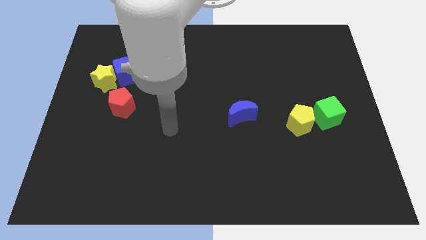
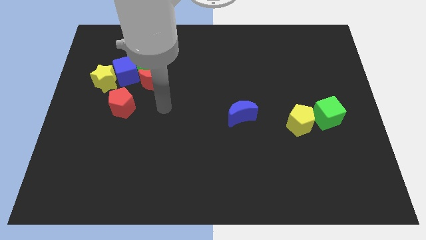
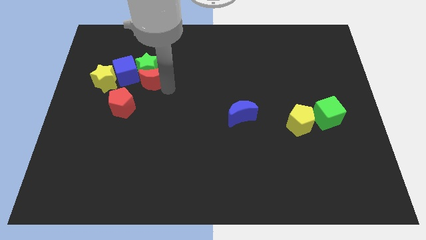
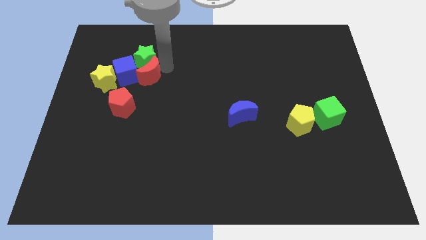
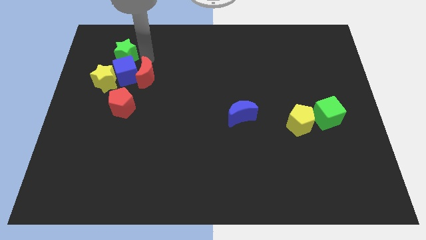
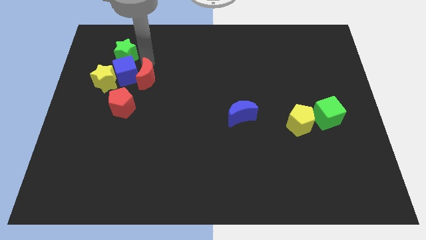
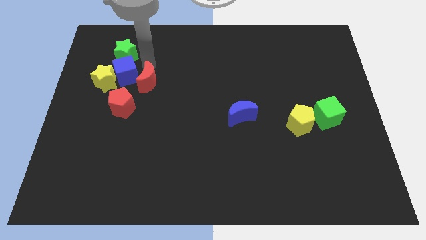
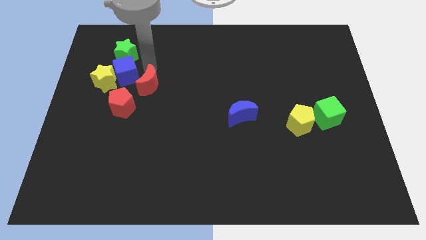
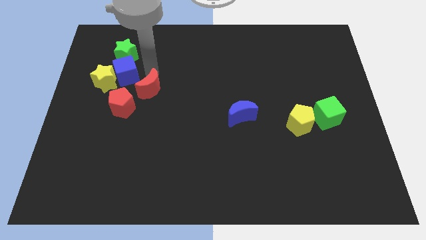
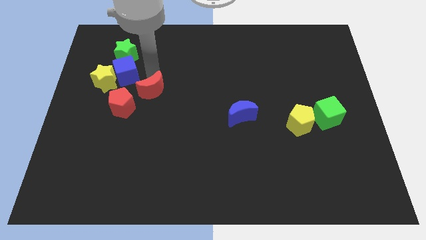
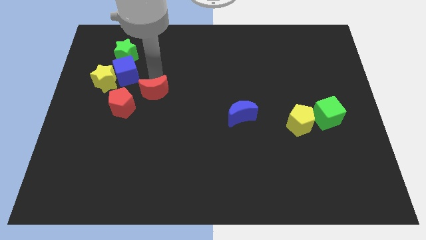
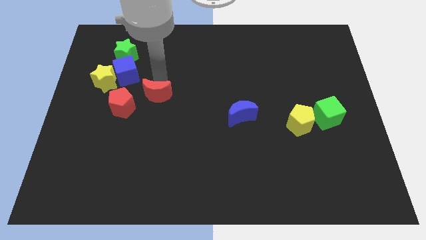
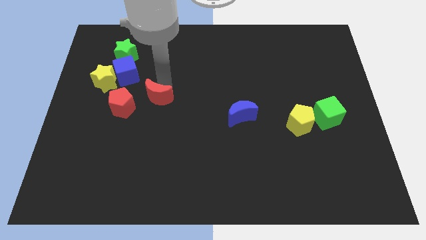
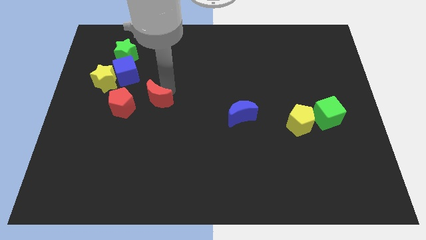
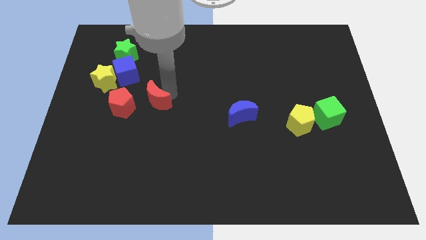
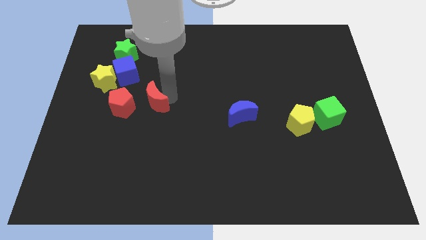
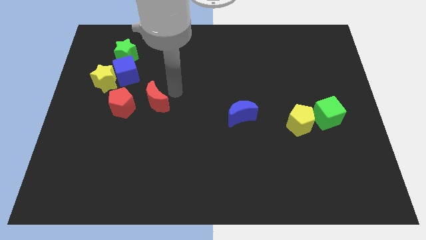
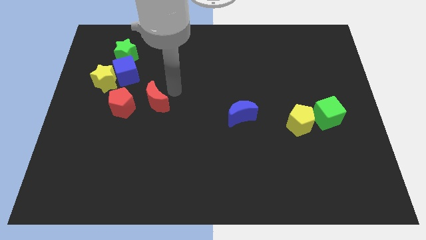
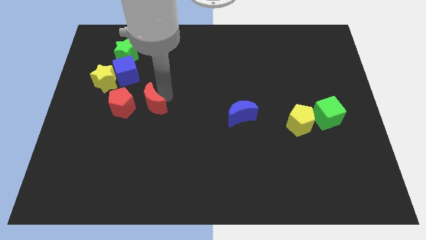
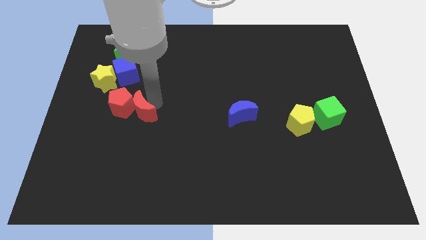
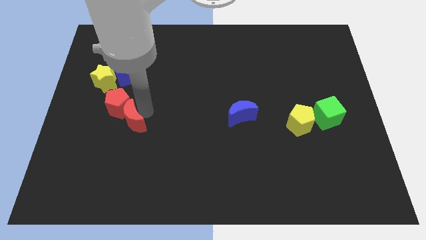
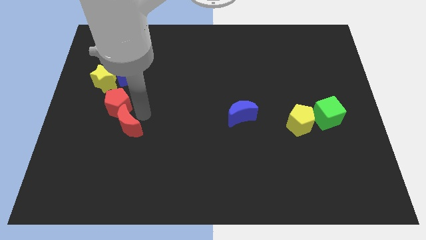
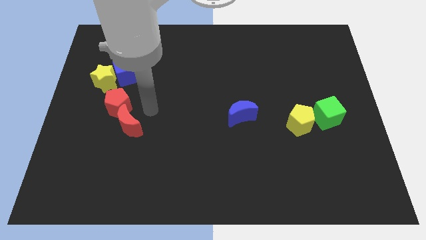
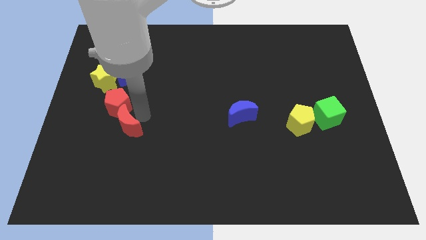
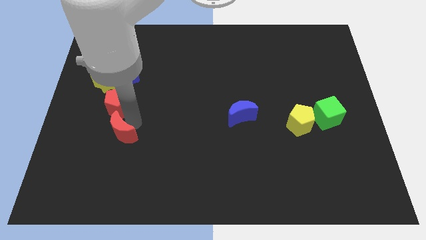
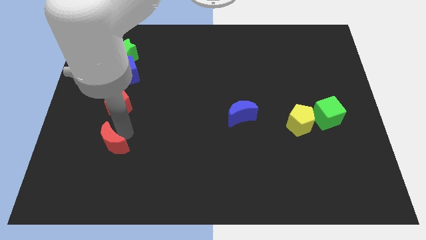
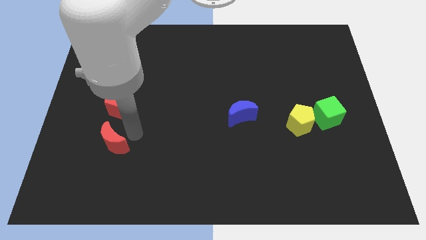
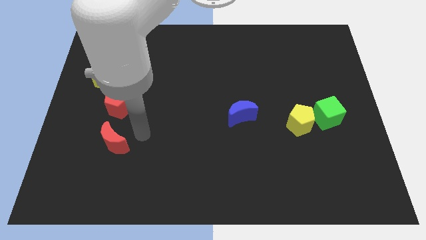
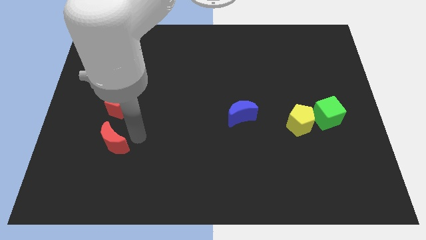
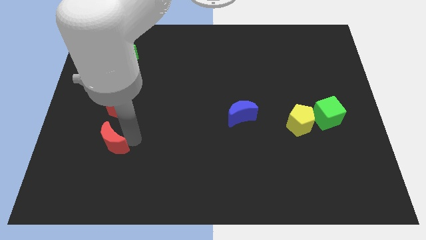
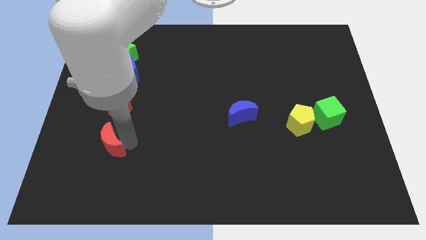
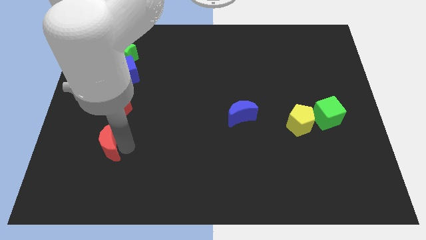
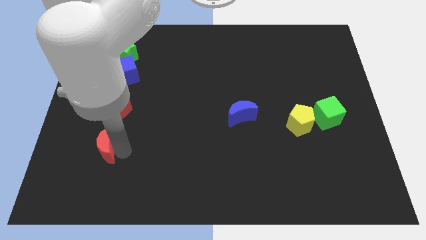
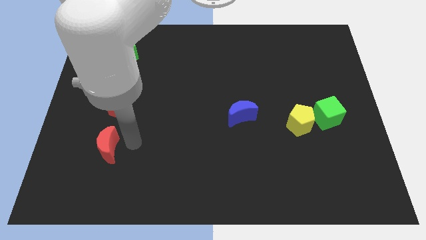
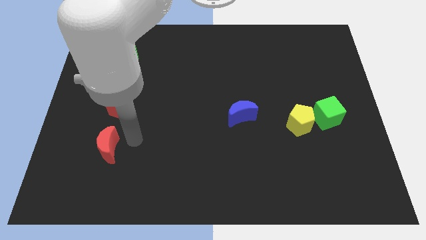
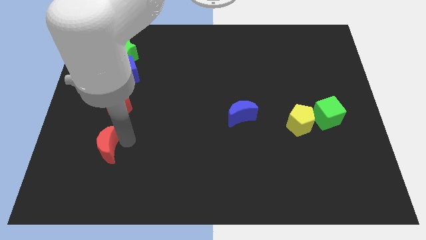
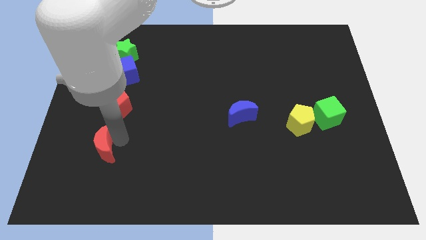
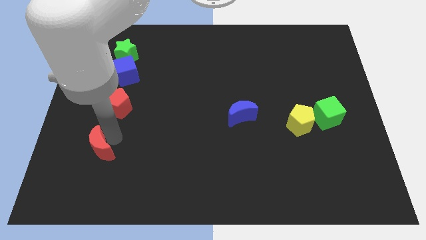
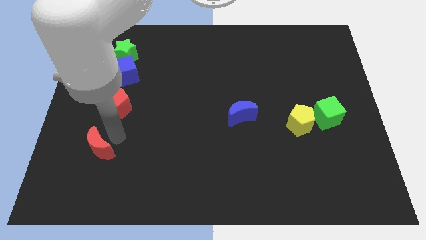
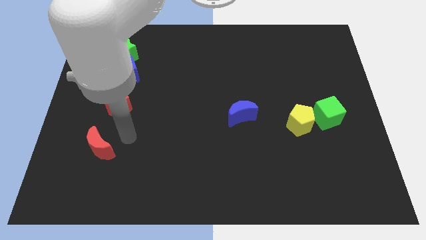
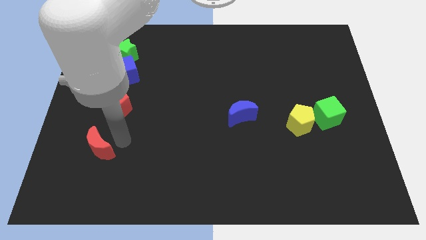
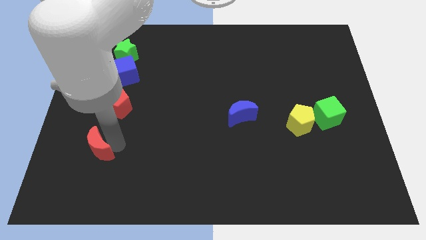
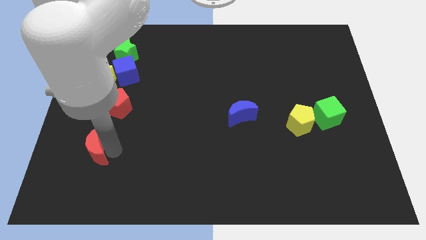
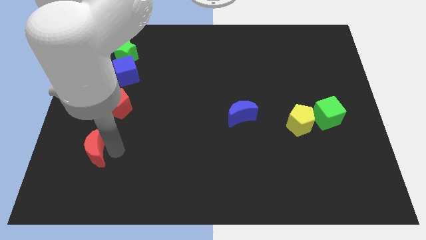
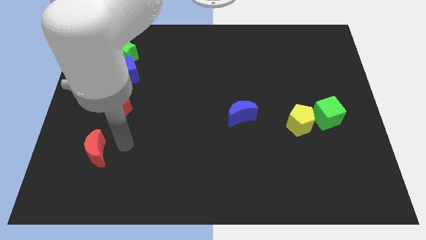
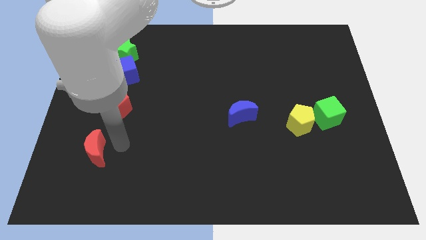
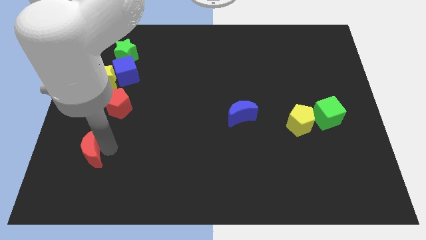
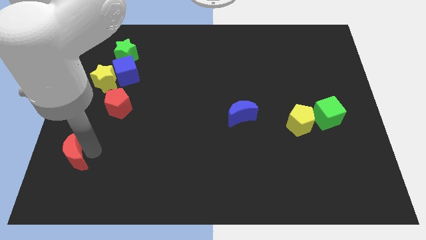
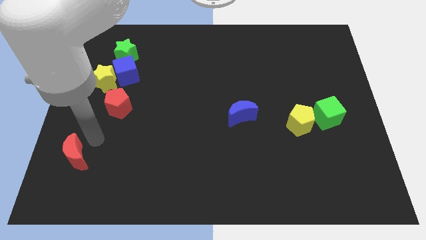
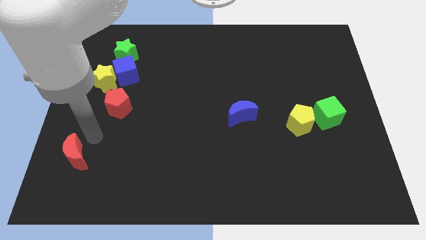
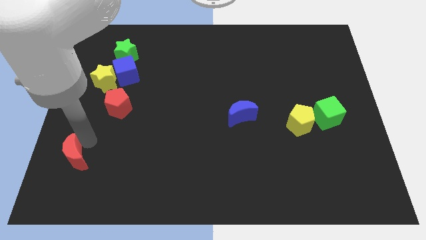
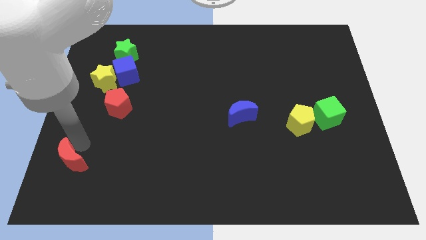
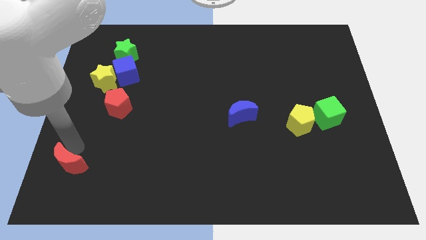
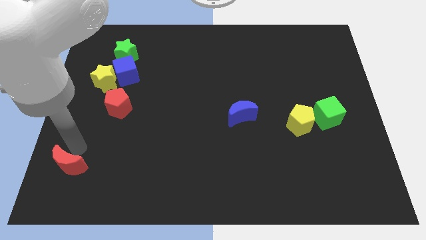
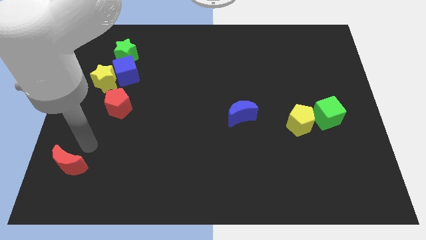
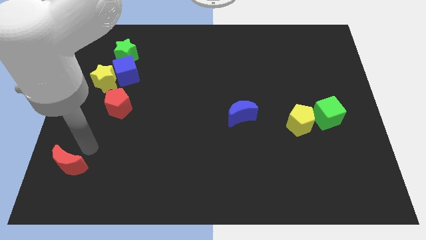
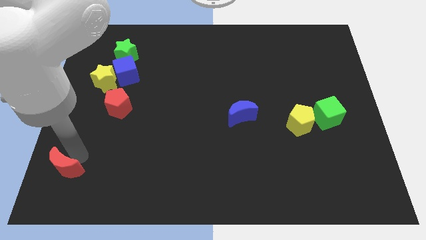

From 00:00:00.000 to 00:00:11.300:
put the red moon to the bottom left corner
